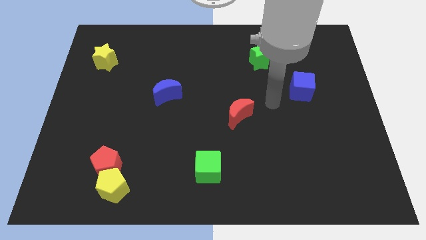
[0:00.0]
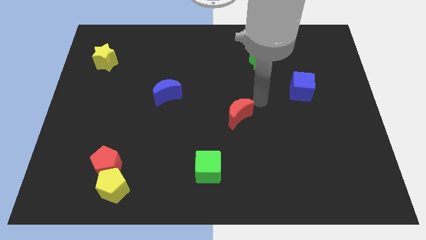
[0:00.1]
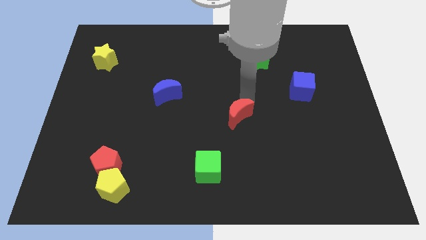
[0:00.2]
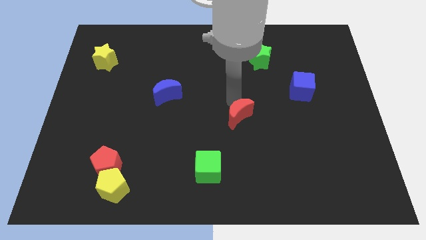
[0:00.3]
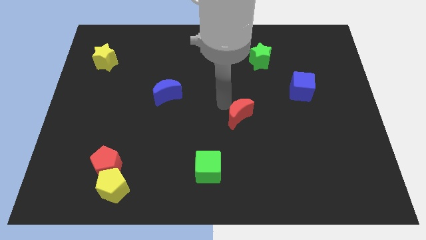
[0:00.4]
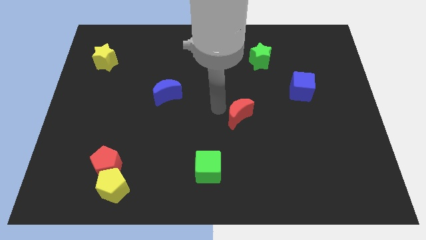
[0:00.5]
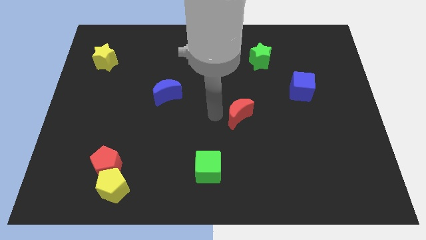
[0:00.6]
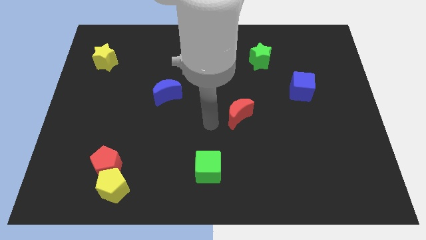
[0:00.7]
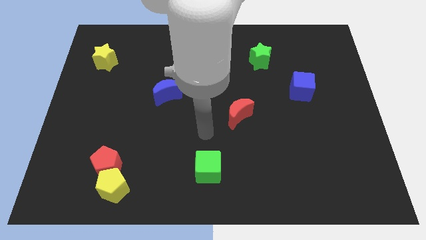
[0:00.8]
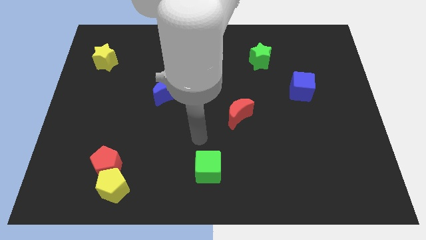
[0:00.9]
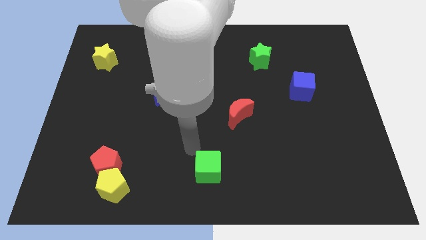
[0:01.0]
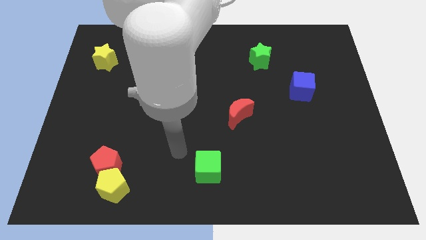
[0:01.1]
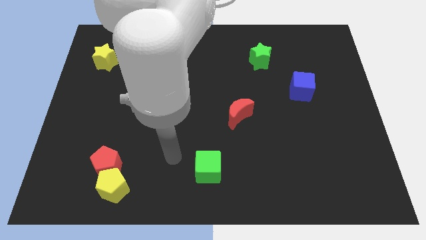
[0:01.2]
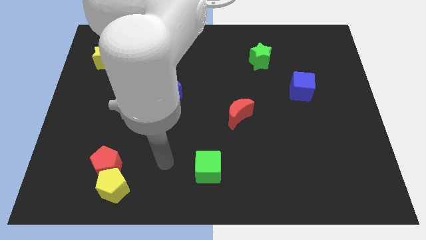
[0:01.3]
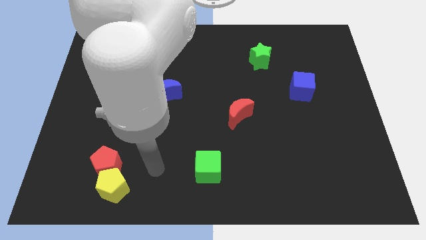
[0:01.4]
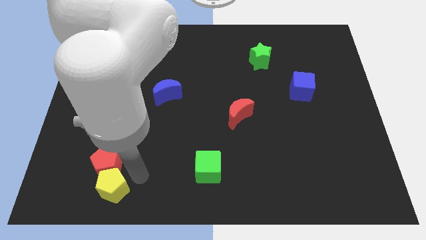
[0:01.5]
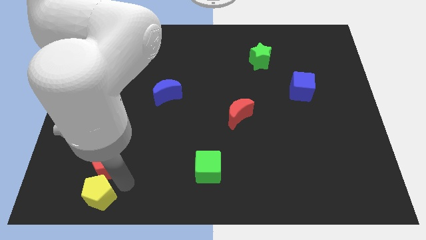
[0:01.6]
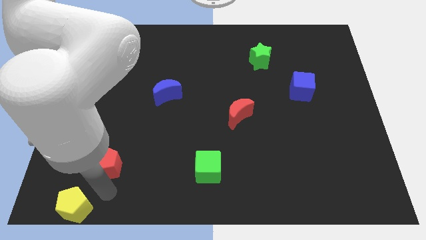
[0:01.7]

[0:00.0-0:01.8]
move the red pentagon away from the yellow pentagon

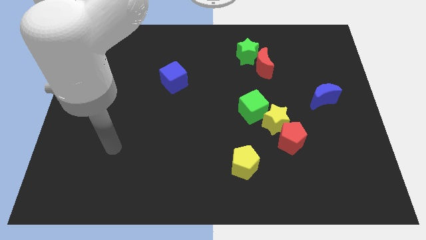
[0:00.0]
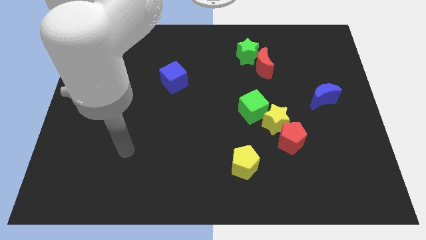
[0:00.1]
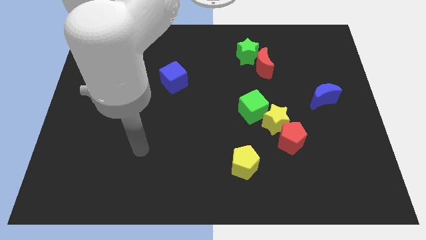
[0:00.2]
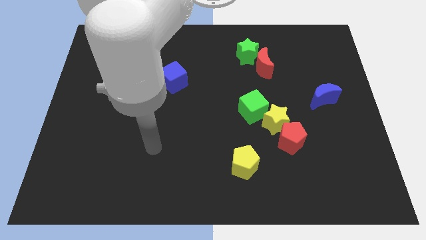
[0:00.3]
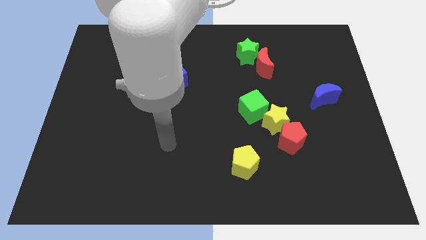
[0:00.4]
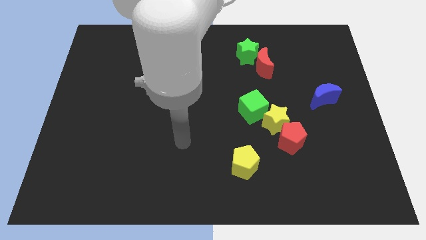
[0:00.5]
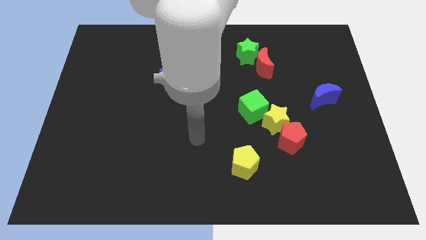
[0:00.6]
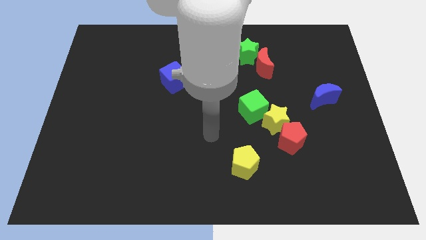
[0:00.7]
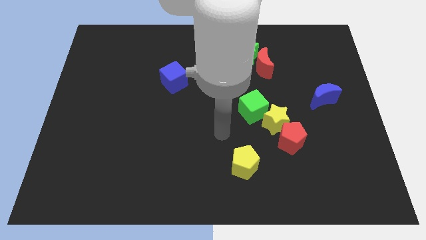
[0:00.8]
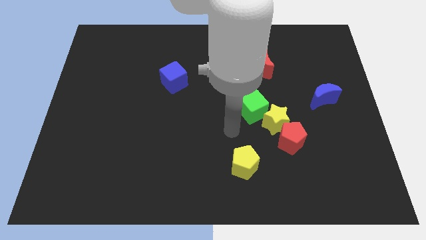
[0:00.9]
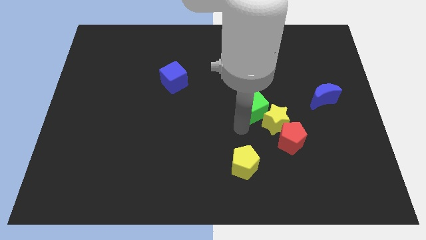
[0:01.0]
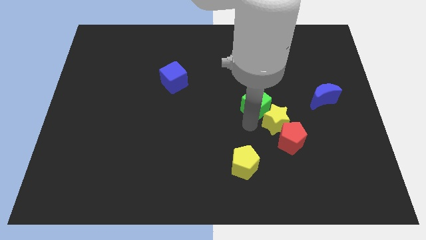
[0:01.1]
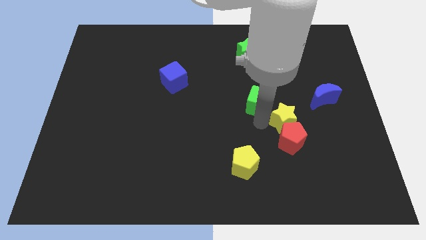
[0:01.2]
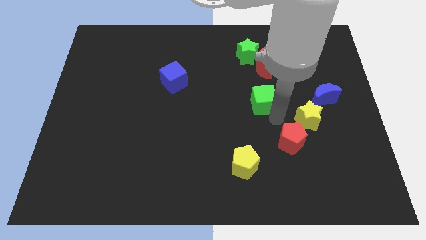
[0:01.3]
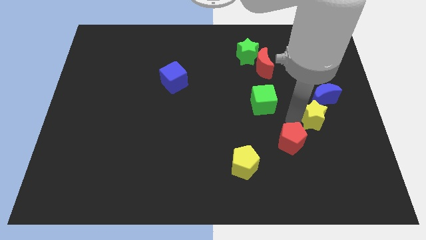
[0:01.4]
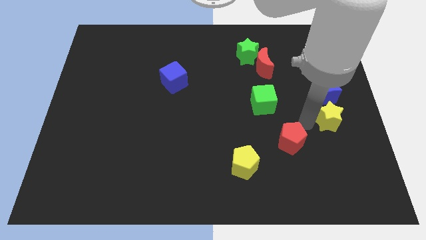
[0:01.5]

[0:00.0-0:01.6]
pull the red pentagon apart from the yellow star

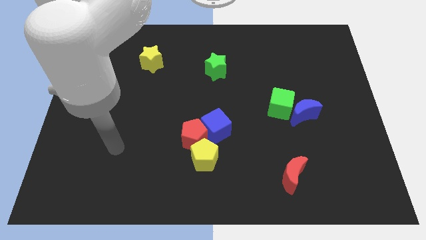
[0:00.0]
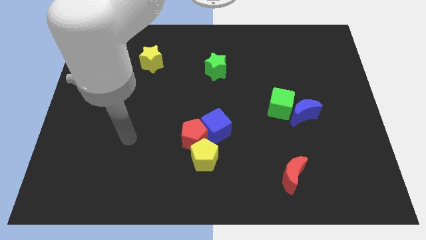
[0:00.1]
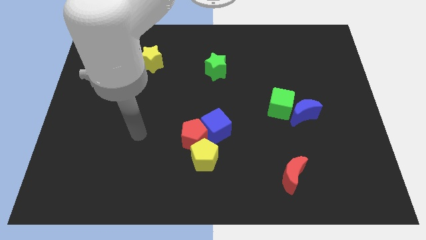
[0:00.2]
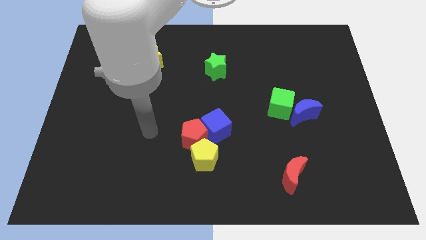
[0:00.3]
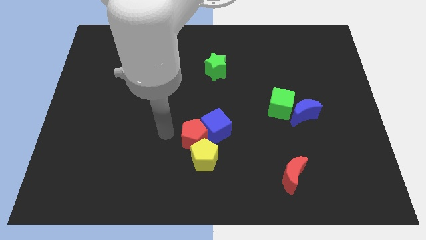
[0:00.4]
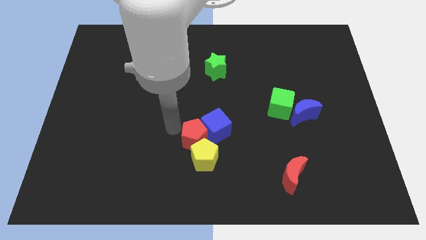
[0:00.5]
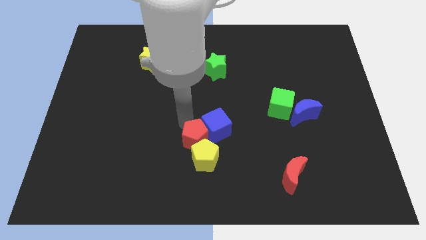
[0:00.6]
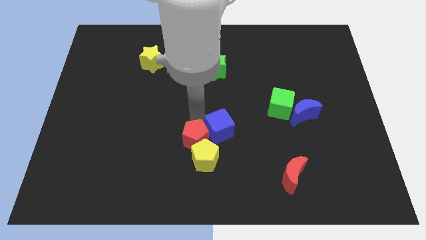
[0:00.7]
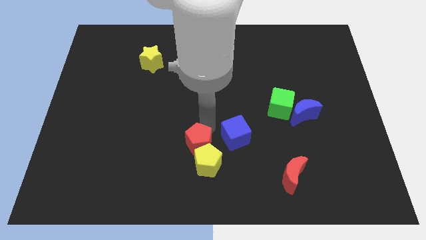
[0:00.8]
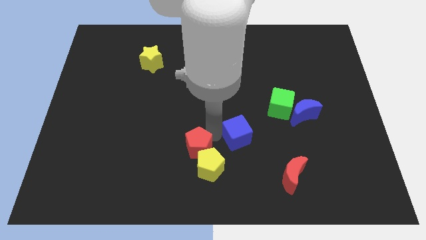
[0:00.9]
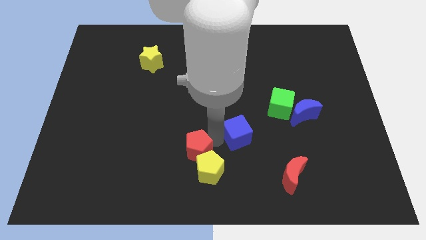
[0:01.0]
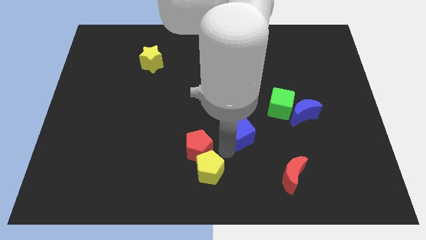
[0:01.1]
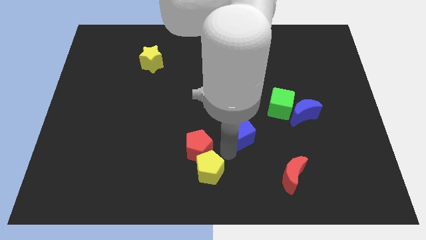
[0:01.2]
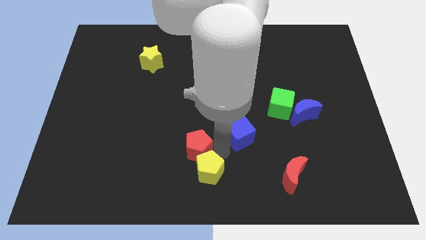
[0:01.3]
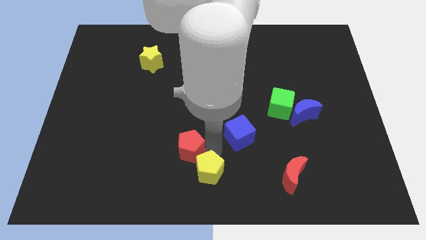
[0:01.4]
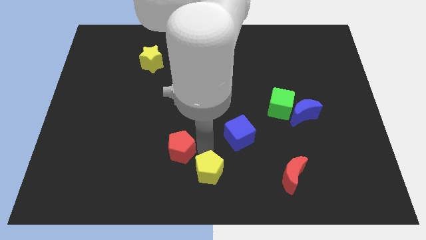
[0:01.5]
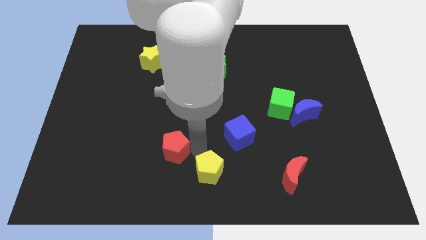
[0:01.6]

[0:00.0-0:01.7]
separate the red pentagon from the blue cube and yellow pentagon

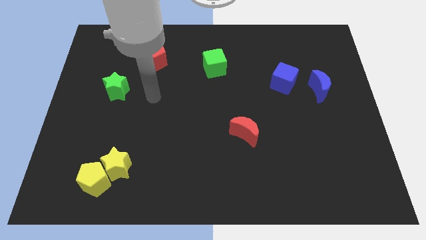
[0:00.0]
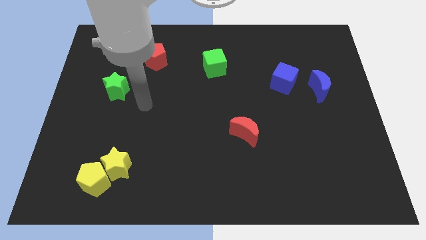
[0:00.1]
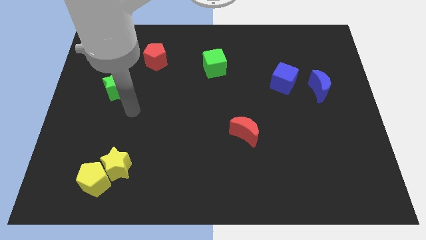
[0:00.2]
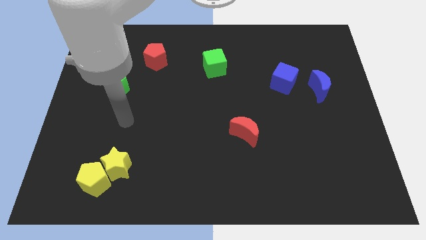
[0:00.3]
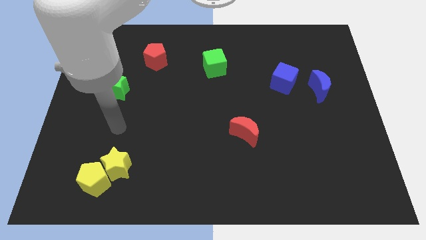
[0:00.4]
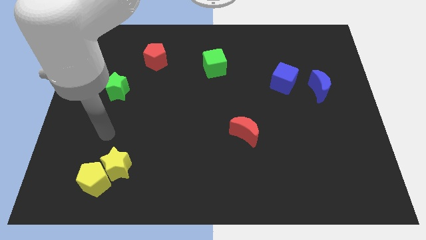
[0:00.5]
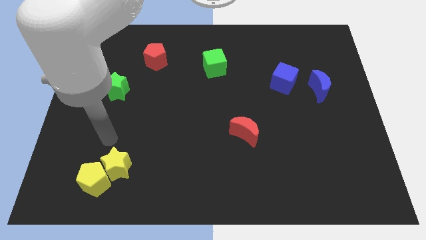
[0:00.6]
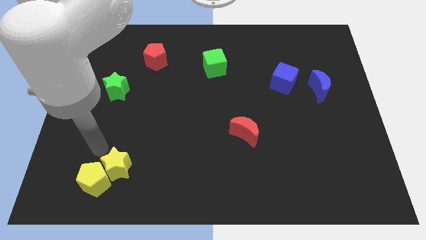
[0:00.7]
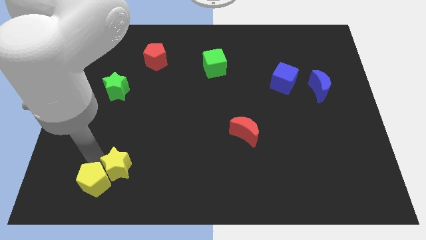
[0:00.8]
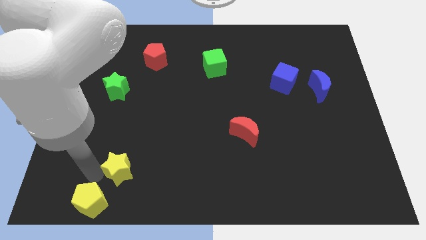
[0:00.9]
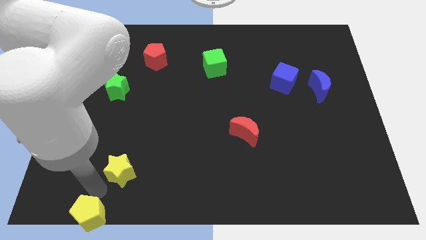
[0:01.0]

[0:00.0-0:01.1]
pull the yellow star apart from the yellow pentagon

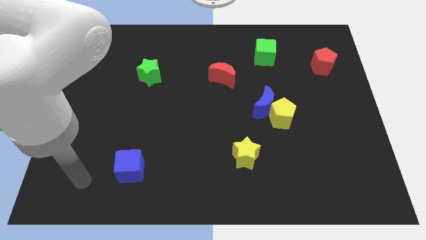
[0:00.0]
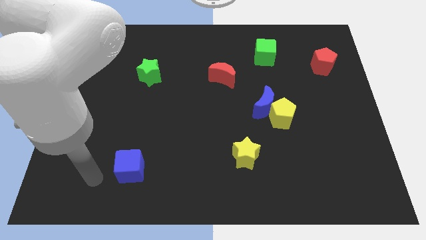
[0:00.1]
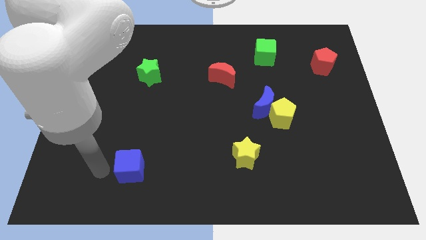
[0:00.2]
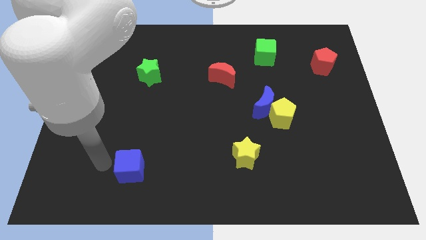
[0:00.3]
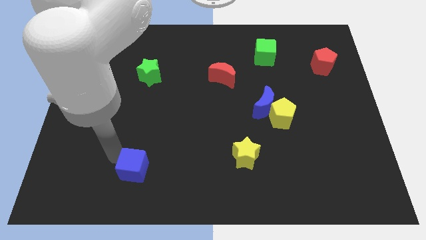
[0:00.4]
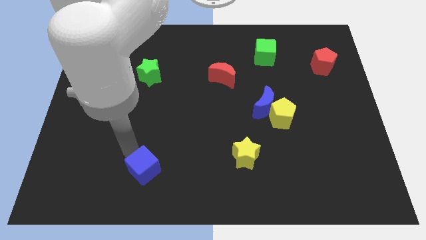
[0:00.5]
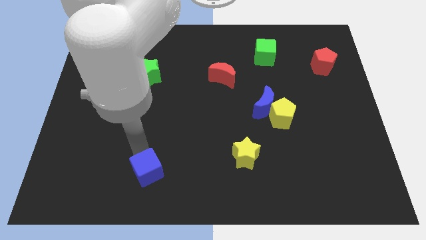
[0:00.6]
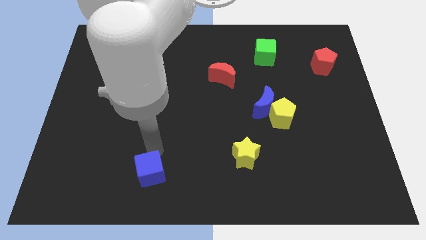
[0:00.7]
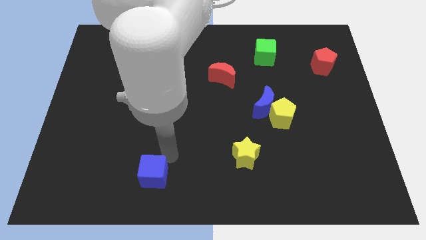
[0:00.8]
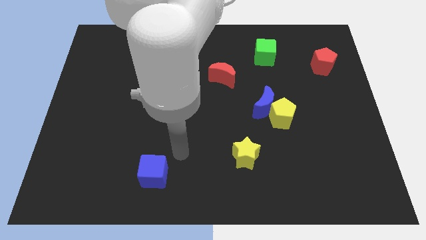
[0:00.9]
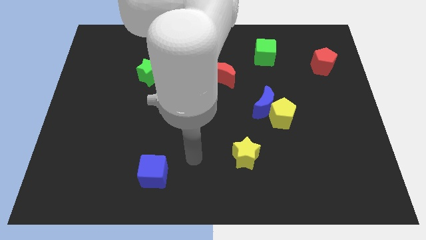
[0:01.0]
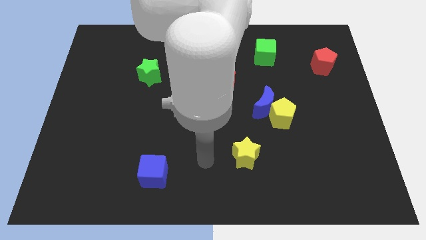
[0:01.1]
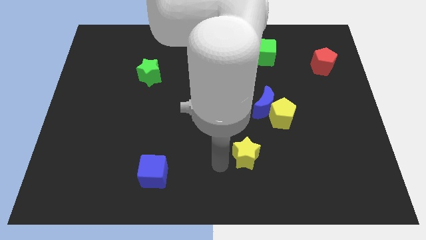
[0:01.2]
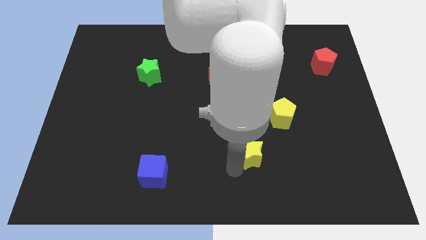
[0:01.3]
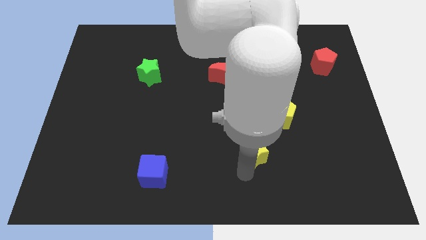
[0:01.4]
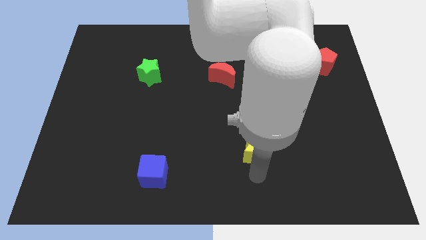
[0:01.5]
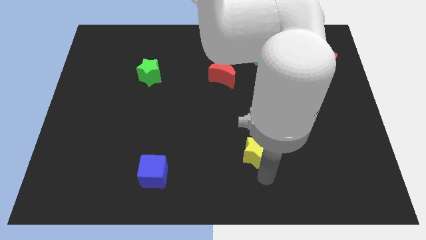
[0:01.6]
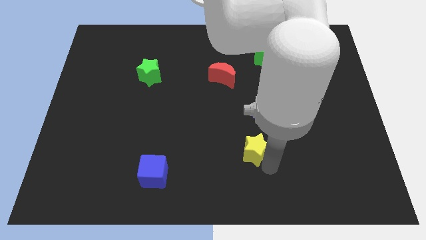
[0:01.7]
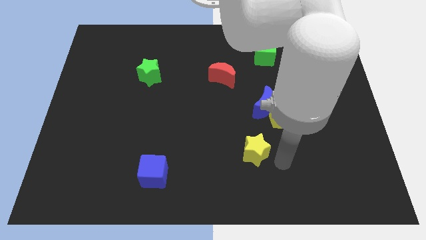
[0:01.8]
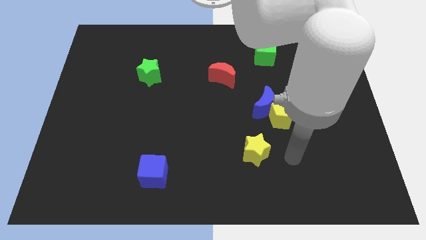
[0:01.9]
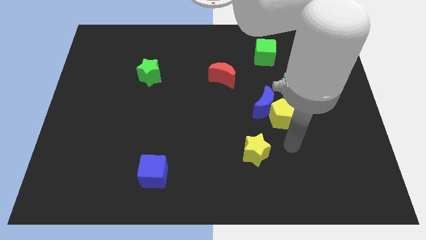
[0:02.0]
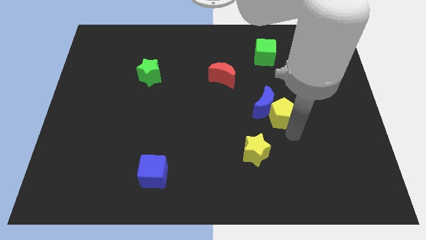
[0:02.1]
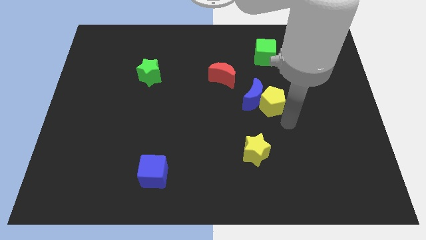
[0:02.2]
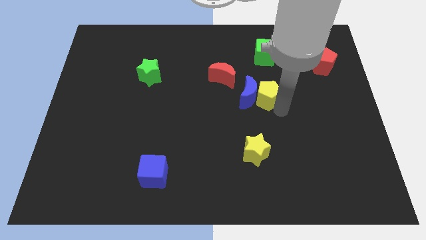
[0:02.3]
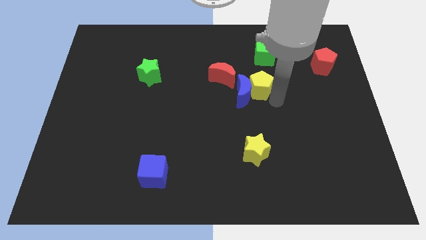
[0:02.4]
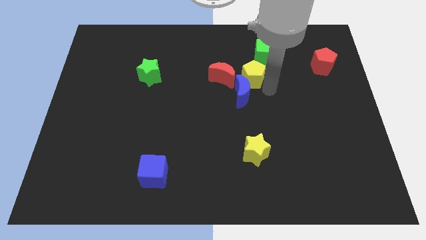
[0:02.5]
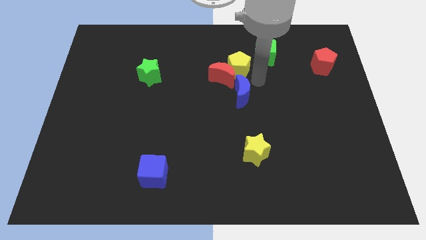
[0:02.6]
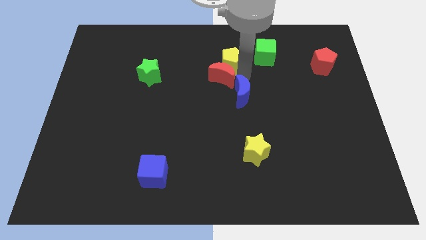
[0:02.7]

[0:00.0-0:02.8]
separate the blue moon from the yellow pentagon

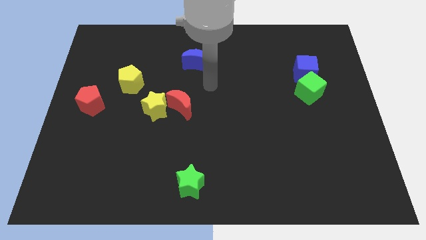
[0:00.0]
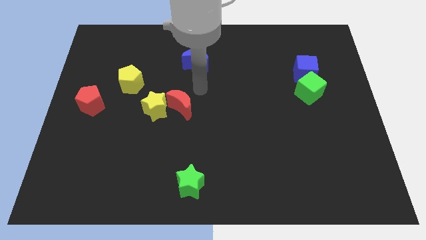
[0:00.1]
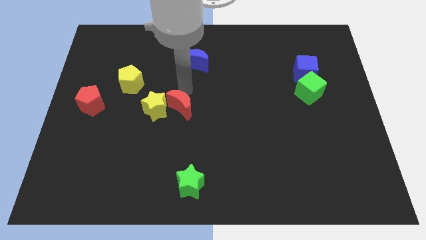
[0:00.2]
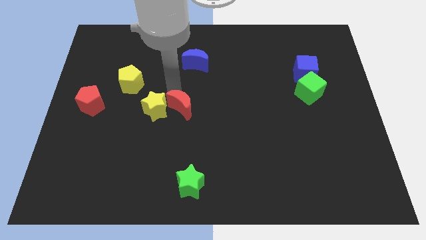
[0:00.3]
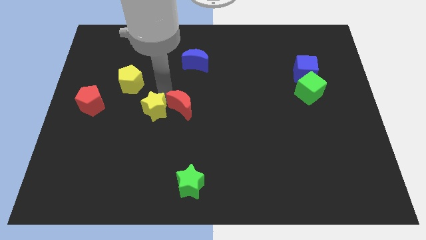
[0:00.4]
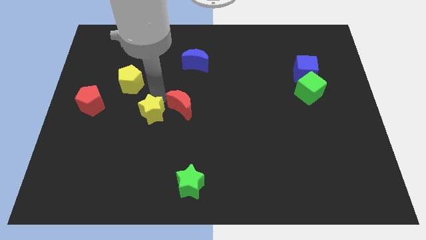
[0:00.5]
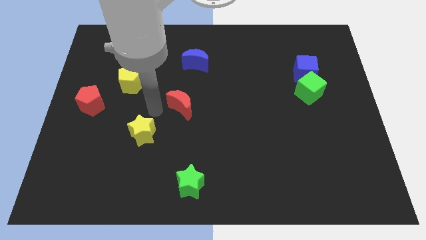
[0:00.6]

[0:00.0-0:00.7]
pull the red moon apart from the yellow star
